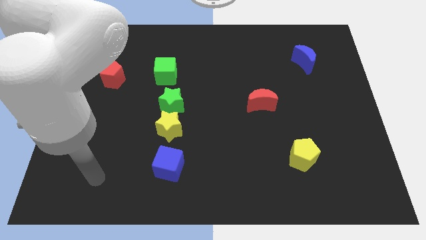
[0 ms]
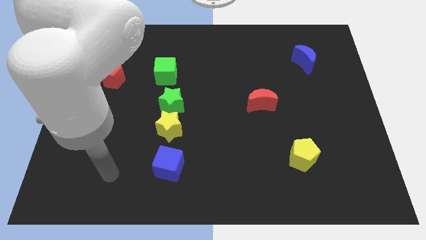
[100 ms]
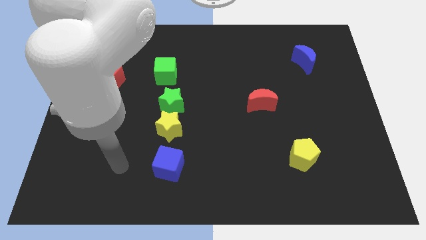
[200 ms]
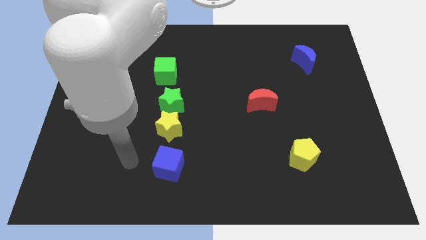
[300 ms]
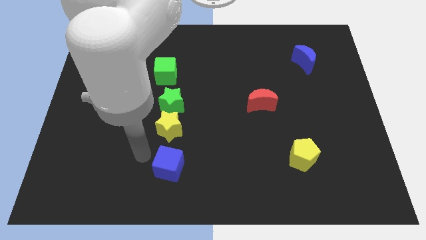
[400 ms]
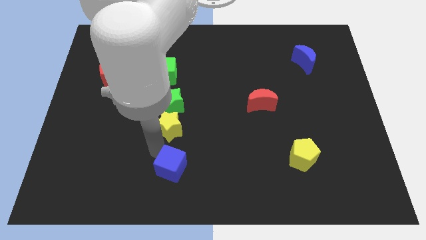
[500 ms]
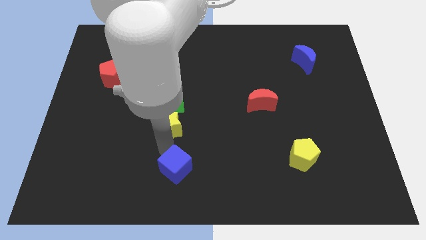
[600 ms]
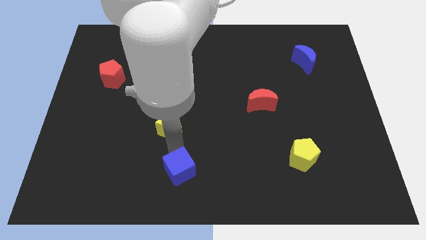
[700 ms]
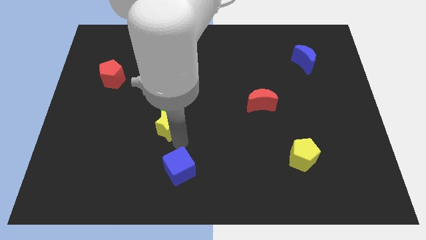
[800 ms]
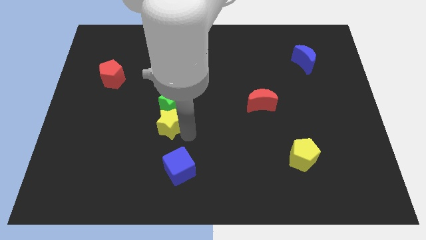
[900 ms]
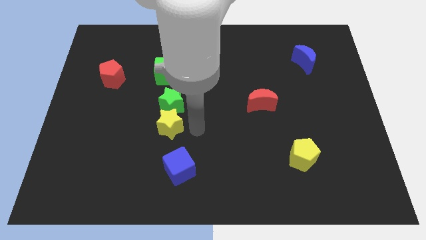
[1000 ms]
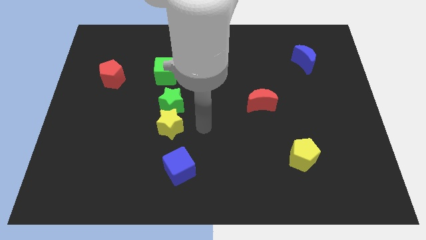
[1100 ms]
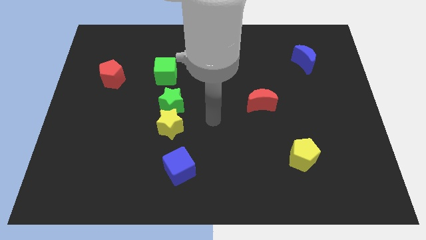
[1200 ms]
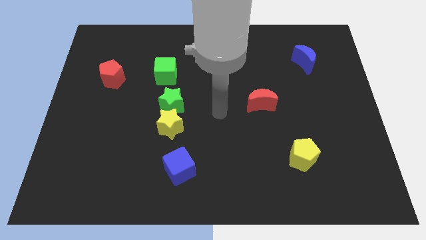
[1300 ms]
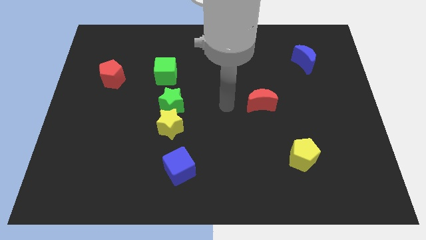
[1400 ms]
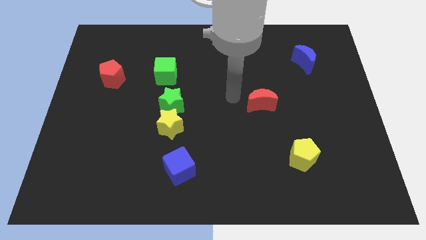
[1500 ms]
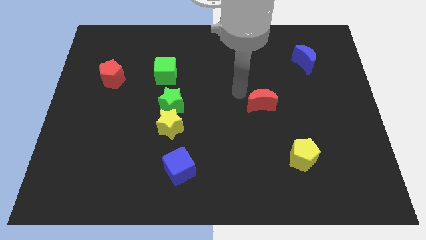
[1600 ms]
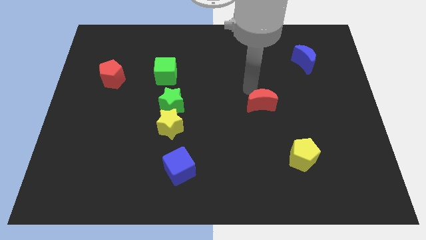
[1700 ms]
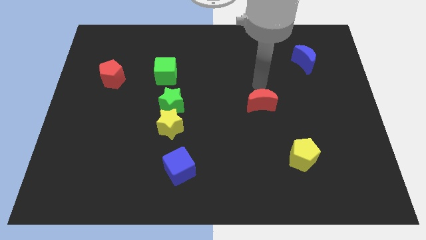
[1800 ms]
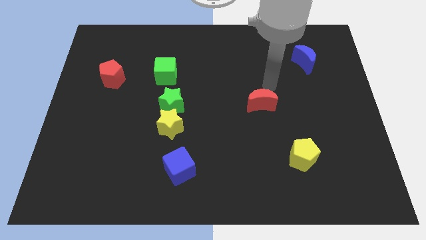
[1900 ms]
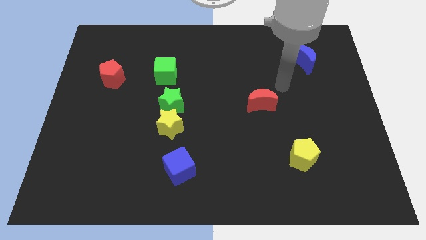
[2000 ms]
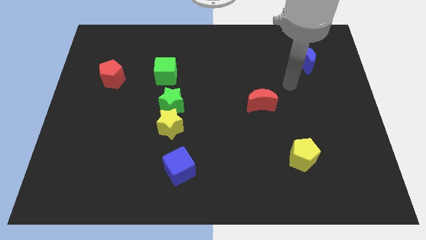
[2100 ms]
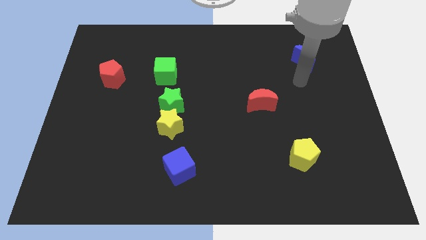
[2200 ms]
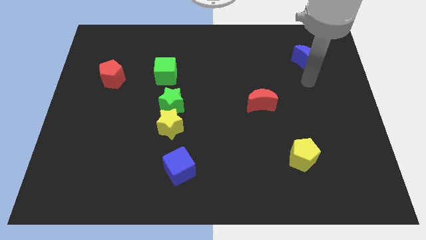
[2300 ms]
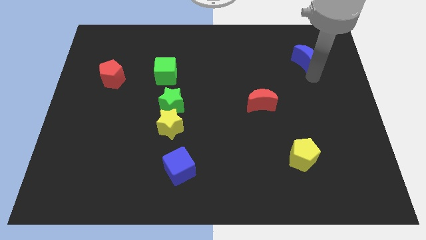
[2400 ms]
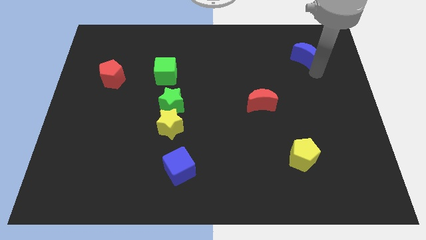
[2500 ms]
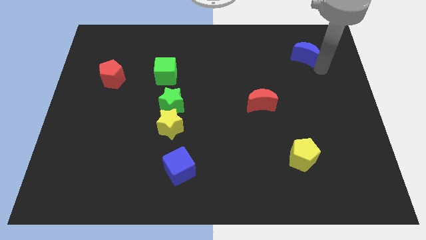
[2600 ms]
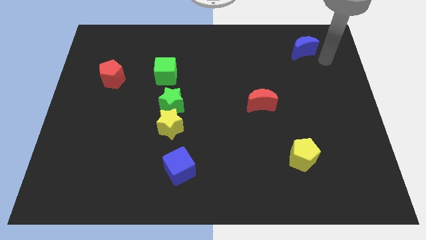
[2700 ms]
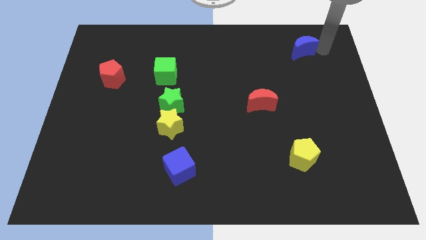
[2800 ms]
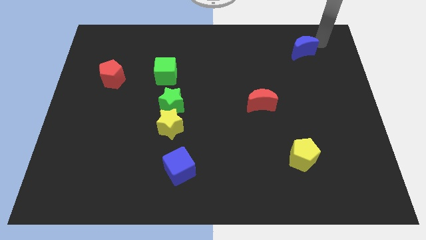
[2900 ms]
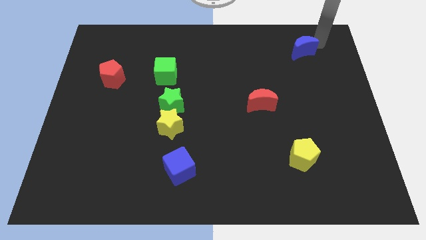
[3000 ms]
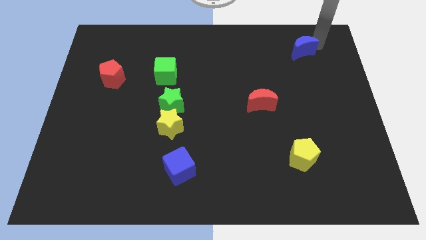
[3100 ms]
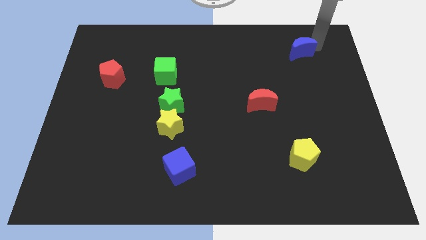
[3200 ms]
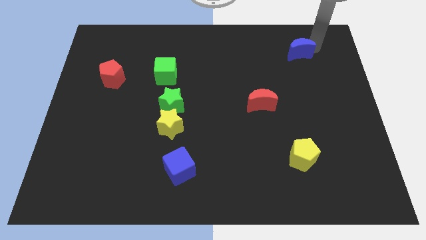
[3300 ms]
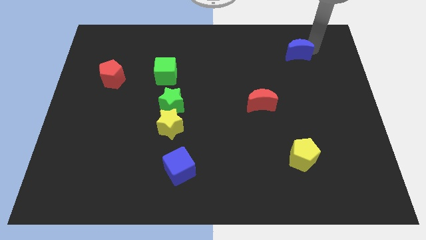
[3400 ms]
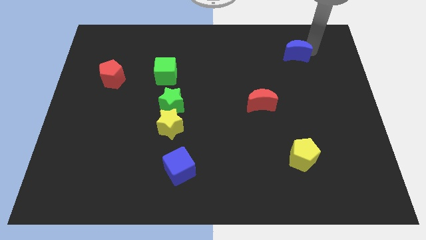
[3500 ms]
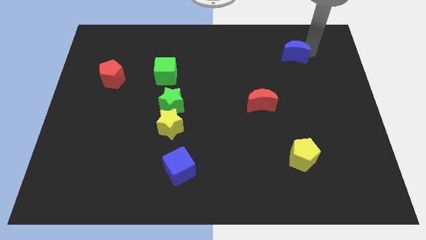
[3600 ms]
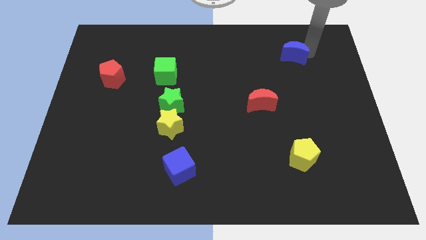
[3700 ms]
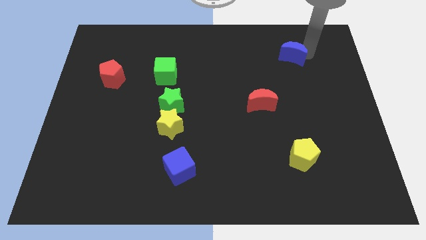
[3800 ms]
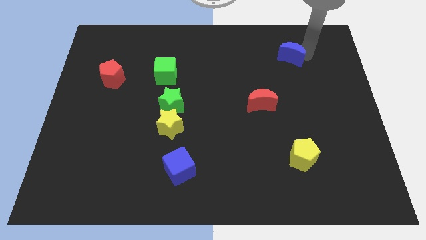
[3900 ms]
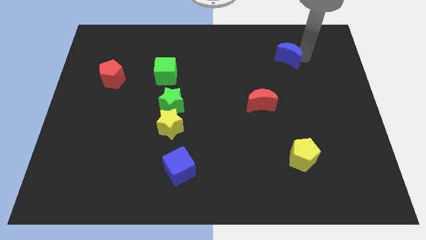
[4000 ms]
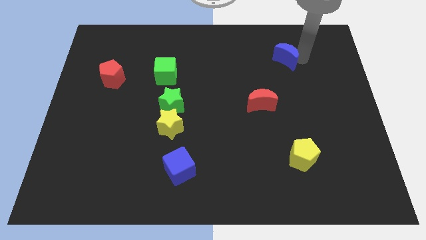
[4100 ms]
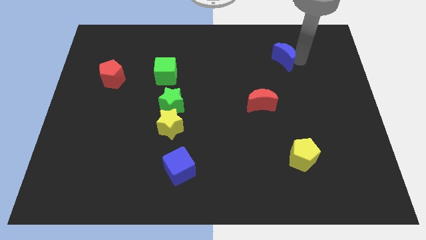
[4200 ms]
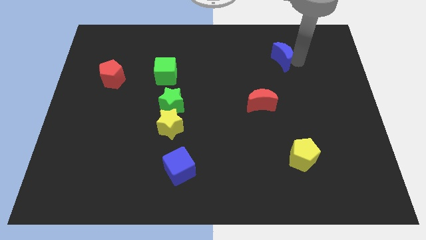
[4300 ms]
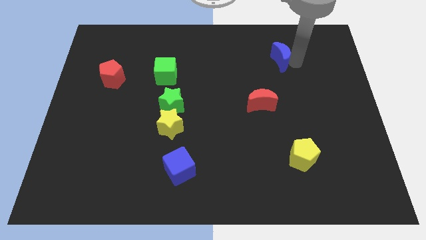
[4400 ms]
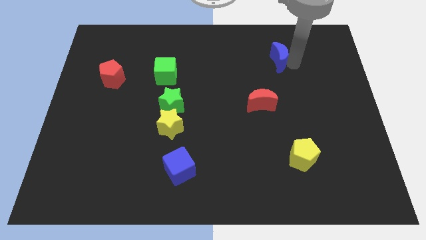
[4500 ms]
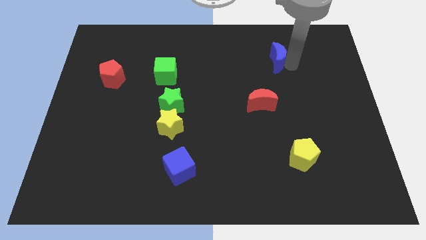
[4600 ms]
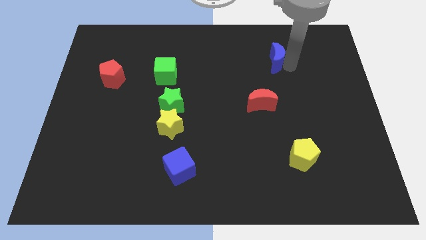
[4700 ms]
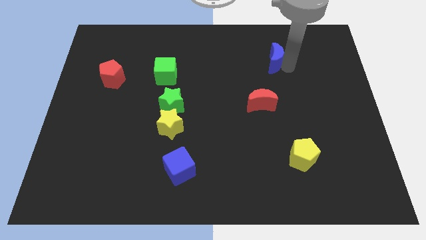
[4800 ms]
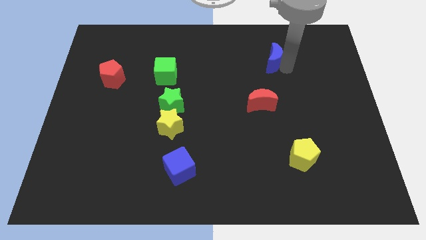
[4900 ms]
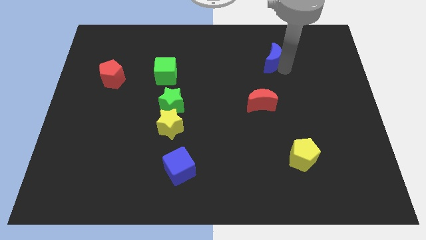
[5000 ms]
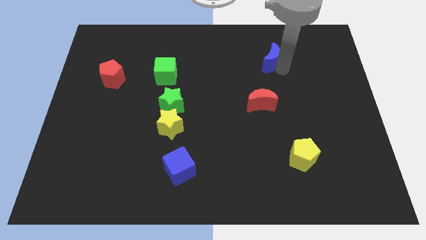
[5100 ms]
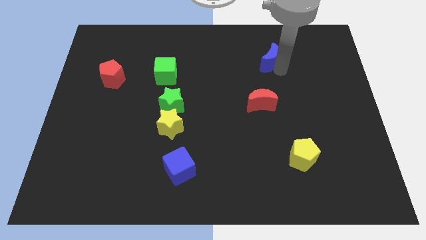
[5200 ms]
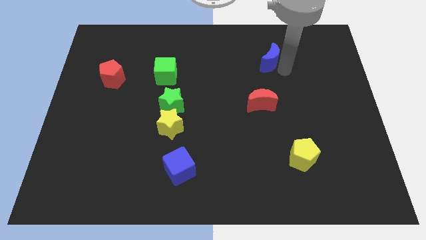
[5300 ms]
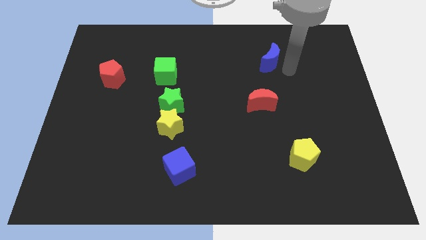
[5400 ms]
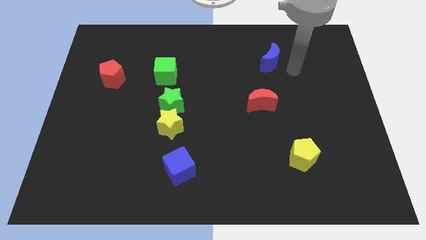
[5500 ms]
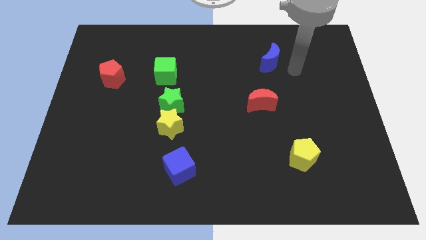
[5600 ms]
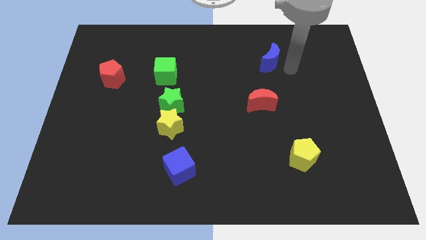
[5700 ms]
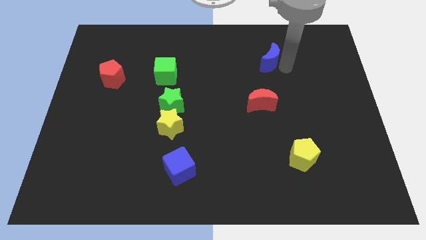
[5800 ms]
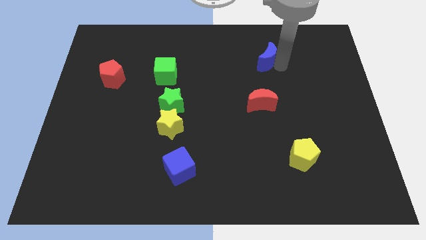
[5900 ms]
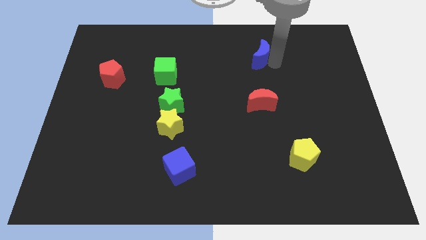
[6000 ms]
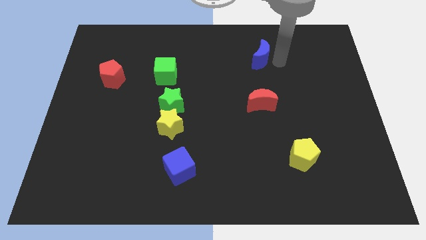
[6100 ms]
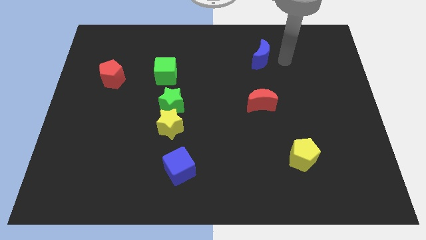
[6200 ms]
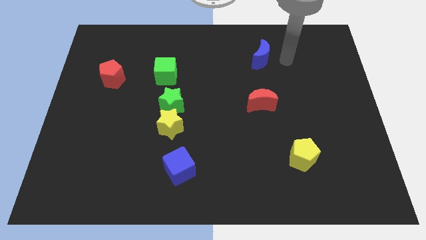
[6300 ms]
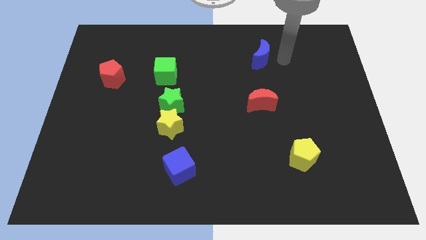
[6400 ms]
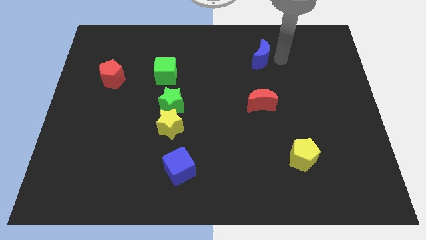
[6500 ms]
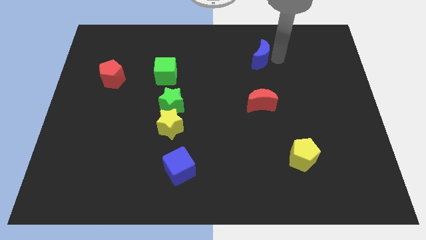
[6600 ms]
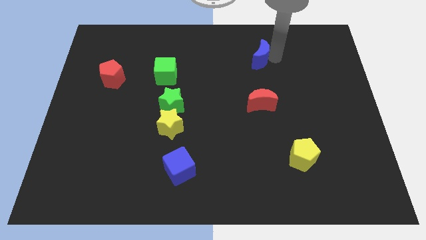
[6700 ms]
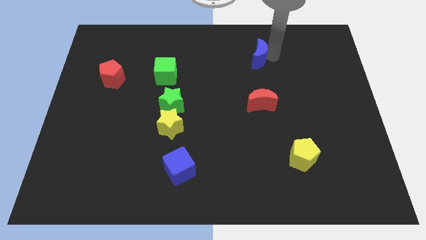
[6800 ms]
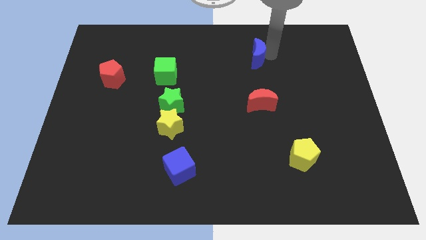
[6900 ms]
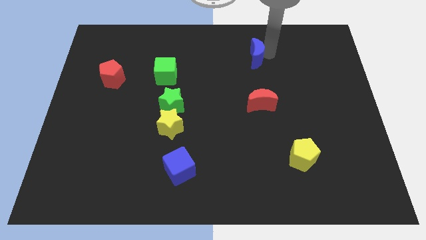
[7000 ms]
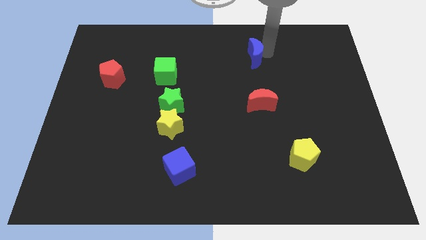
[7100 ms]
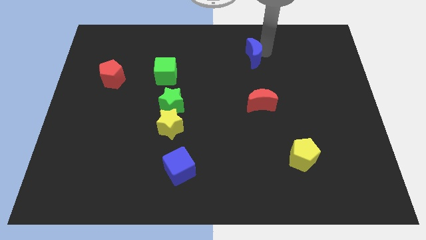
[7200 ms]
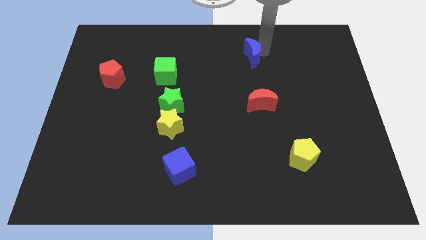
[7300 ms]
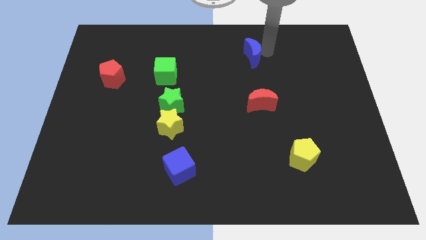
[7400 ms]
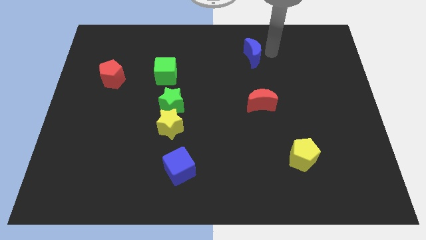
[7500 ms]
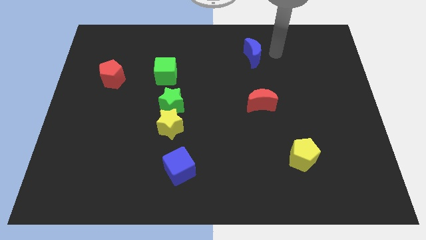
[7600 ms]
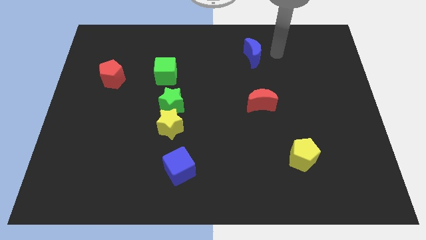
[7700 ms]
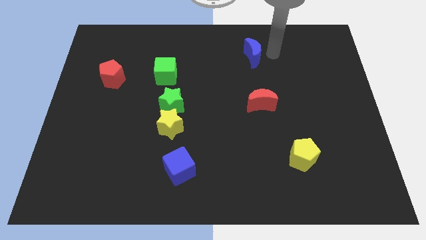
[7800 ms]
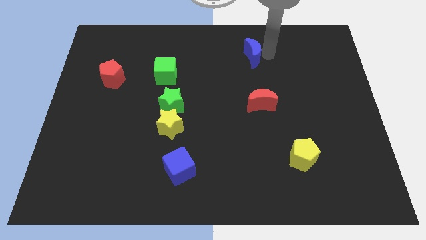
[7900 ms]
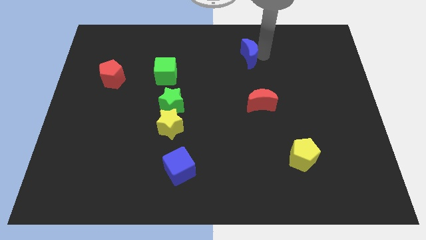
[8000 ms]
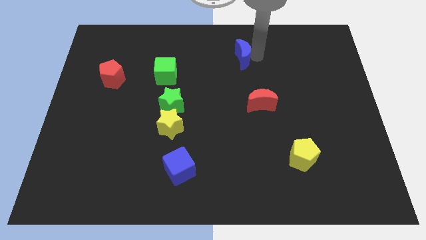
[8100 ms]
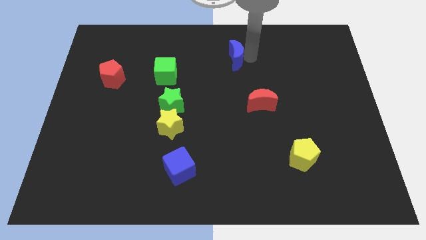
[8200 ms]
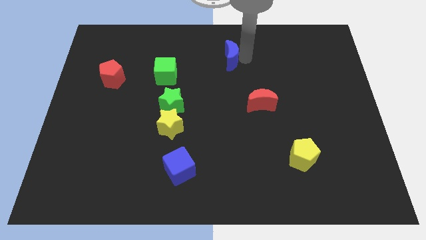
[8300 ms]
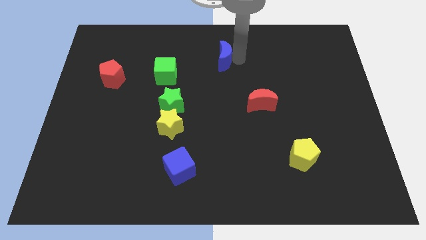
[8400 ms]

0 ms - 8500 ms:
move the blue moon left
